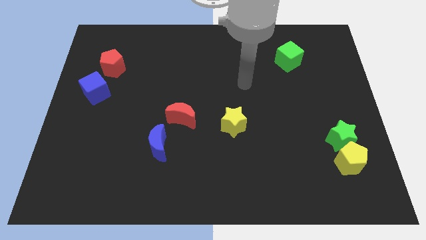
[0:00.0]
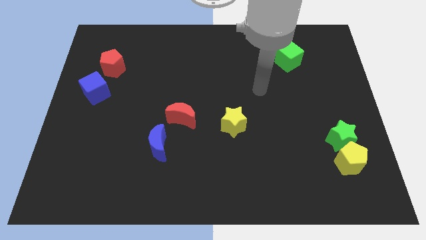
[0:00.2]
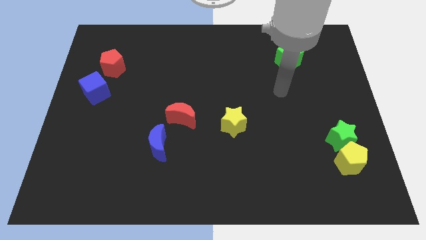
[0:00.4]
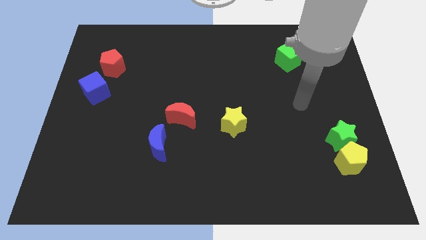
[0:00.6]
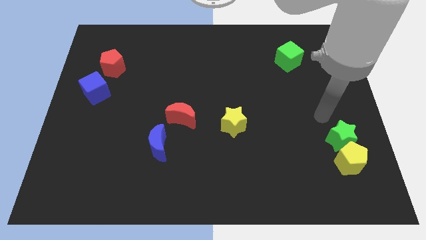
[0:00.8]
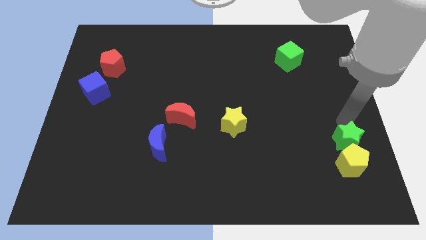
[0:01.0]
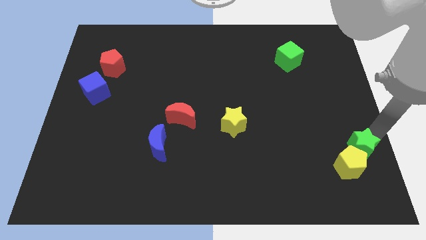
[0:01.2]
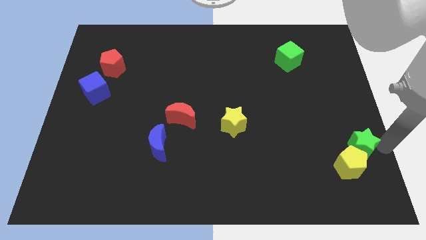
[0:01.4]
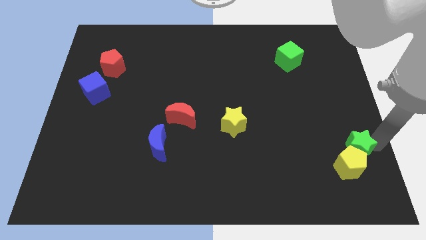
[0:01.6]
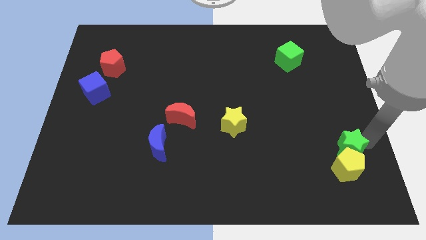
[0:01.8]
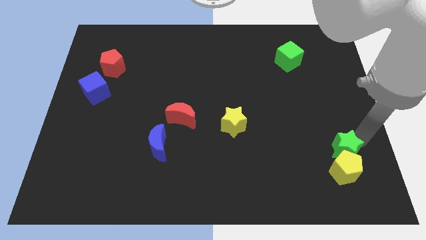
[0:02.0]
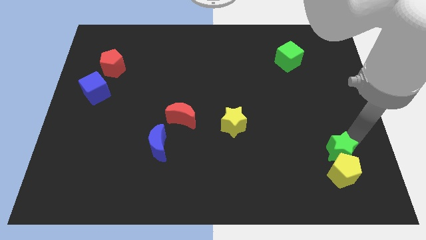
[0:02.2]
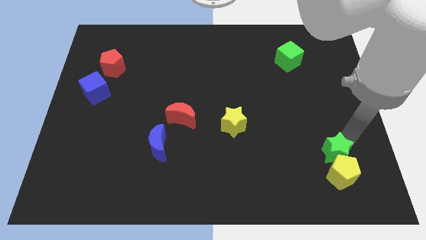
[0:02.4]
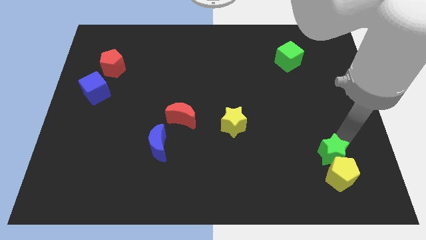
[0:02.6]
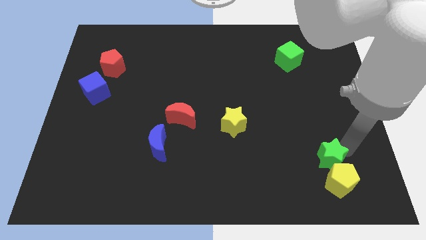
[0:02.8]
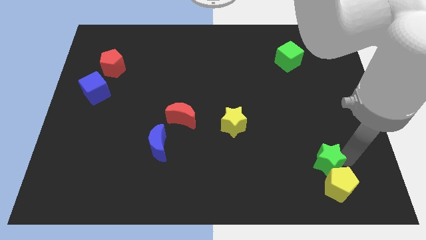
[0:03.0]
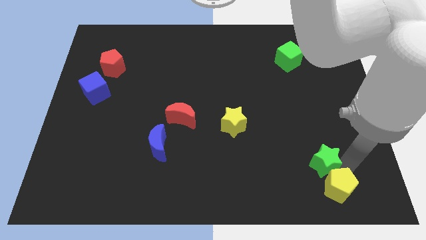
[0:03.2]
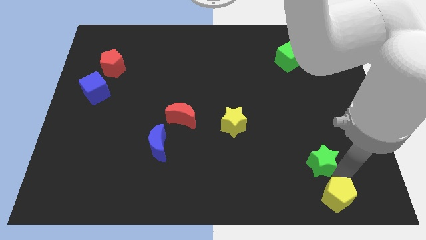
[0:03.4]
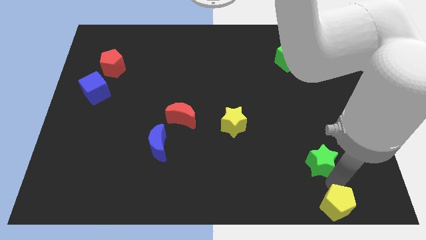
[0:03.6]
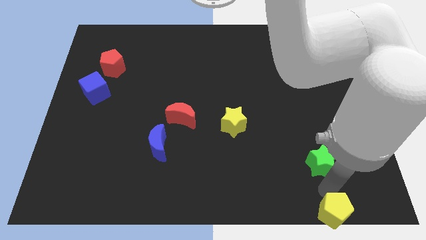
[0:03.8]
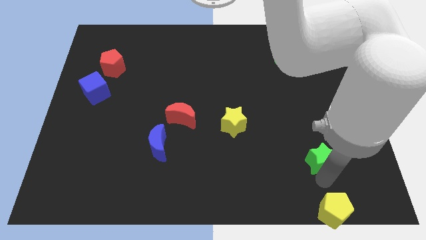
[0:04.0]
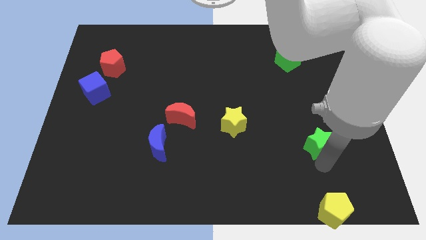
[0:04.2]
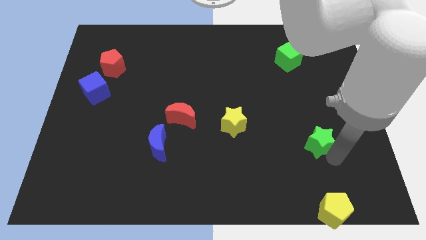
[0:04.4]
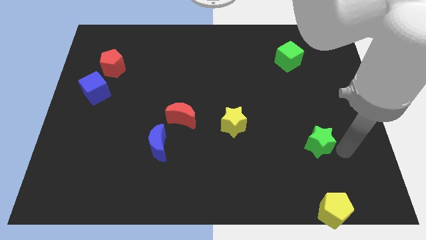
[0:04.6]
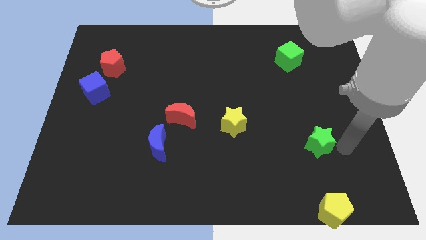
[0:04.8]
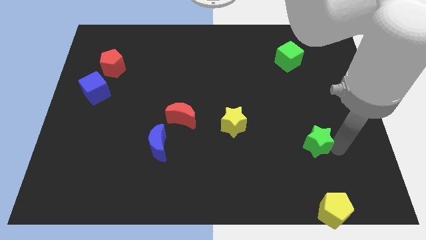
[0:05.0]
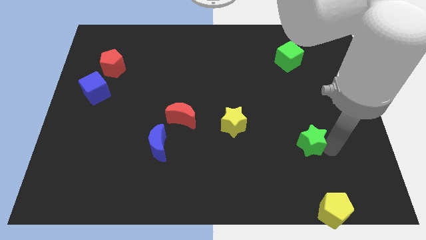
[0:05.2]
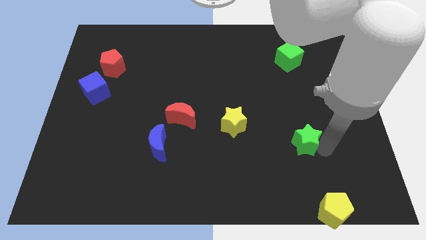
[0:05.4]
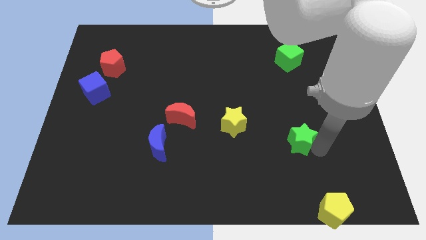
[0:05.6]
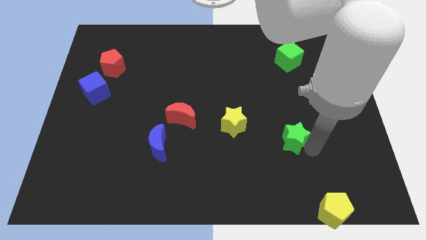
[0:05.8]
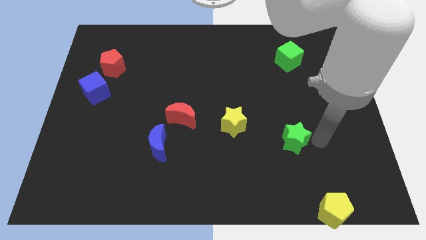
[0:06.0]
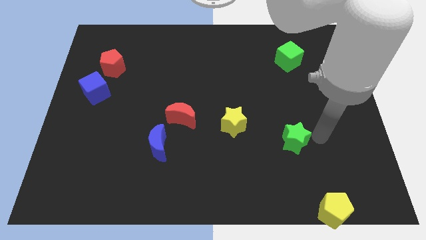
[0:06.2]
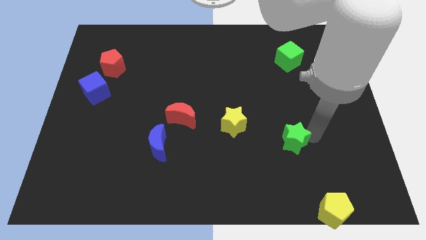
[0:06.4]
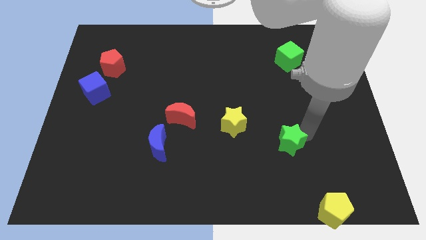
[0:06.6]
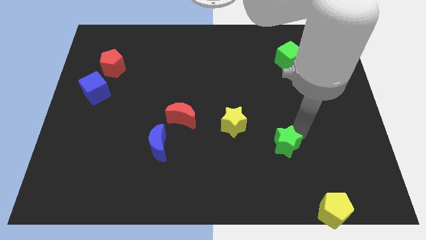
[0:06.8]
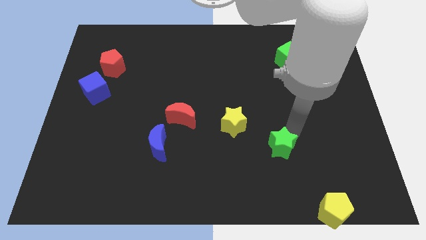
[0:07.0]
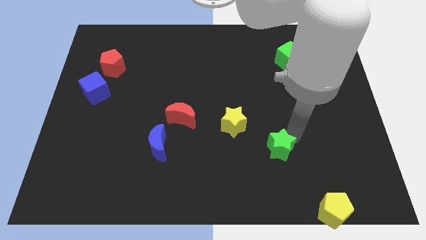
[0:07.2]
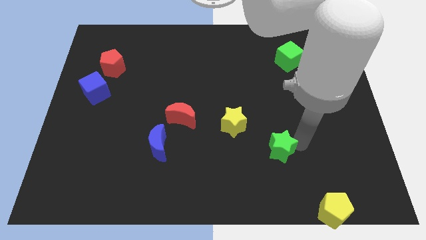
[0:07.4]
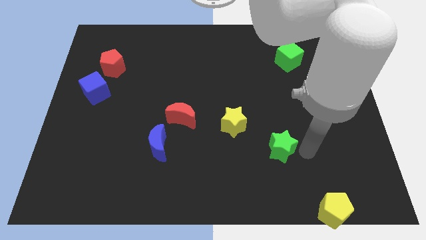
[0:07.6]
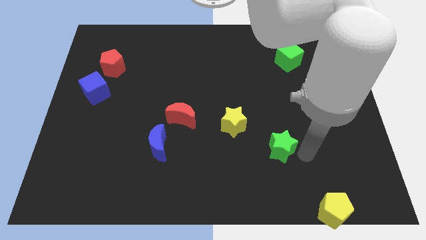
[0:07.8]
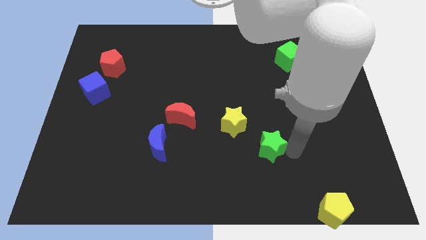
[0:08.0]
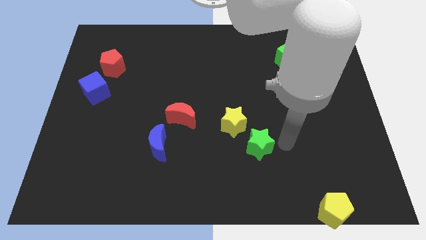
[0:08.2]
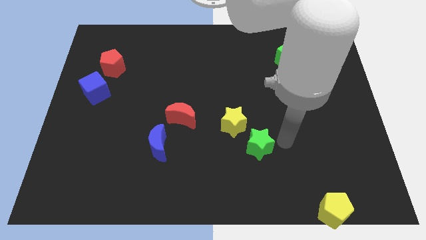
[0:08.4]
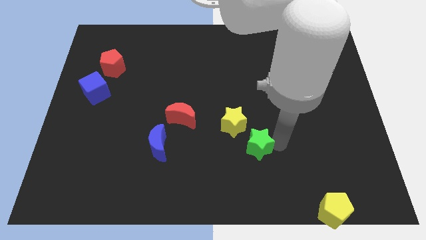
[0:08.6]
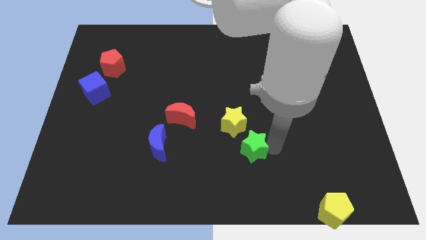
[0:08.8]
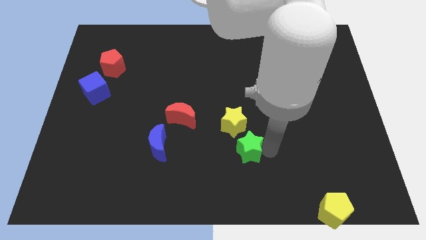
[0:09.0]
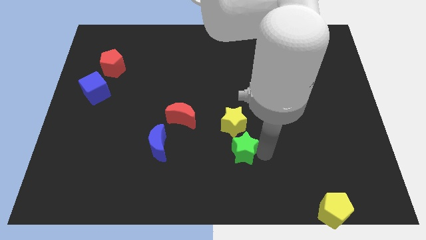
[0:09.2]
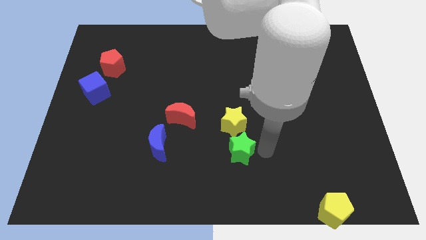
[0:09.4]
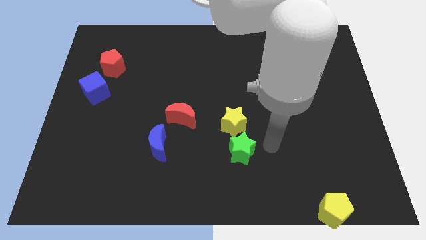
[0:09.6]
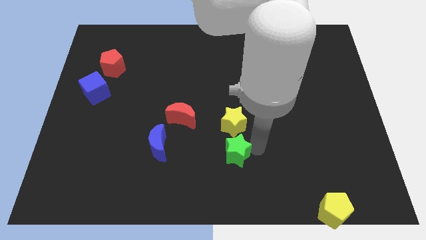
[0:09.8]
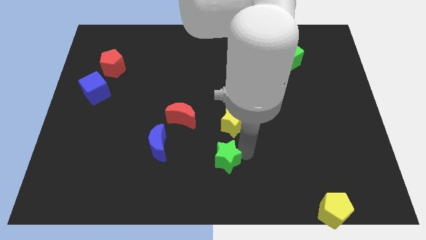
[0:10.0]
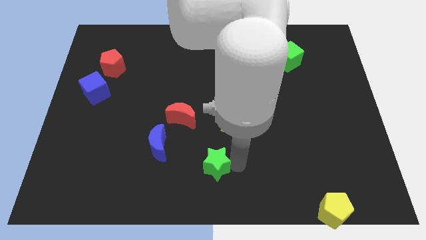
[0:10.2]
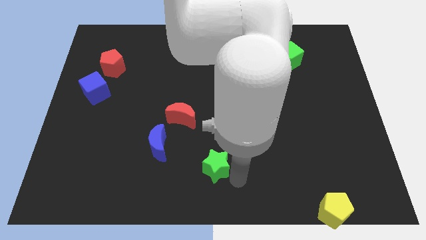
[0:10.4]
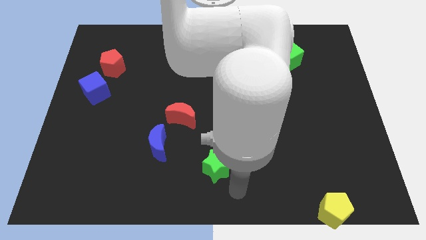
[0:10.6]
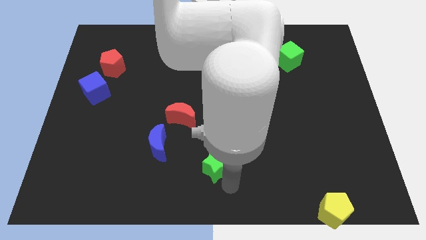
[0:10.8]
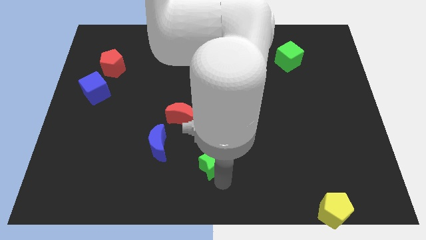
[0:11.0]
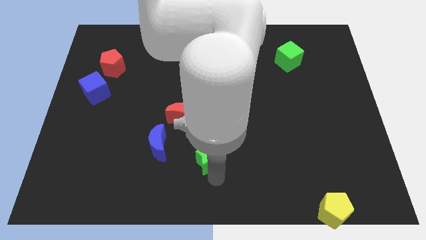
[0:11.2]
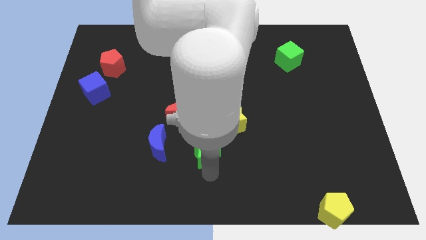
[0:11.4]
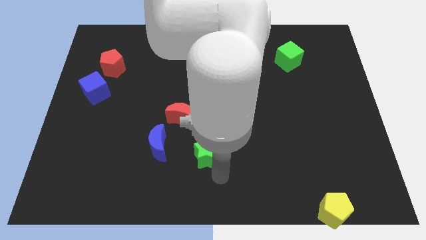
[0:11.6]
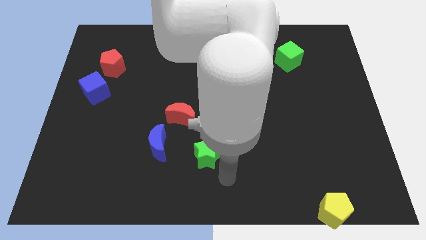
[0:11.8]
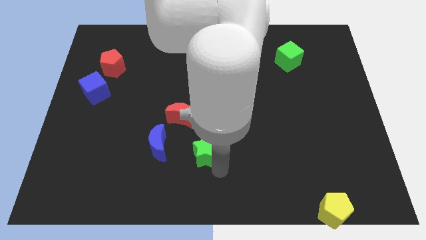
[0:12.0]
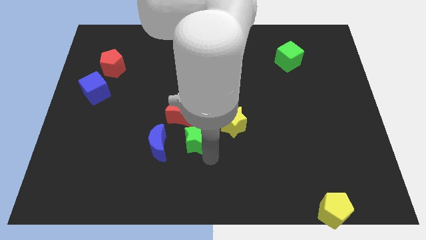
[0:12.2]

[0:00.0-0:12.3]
move the green star just left of the yellow star

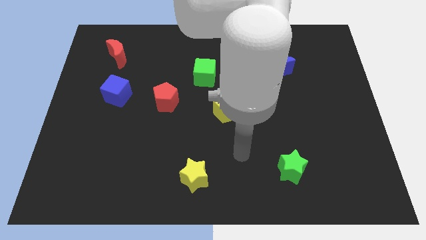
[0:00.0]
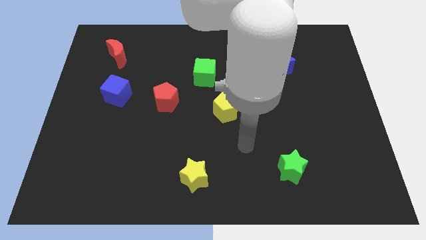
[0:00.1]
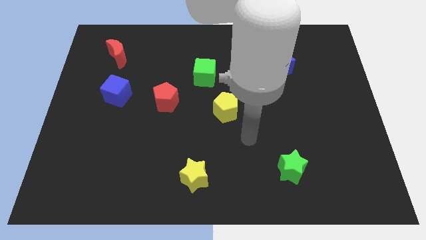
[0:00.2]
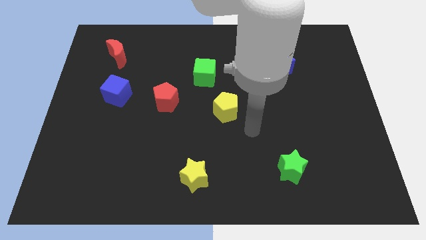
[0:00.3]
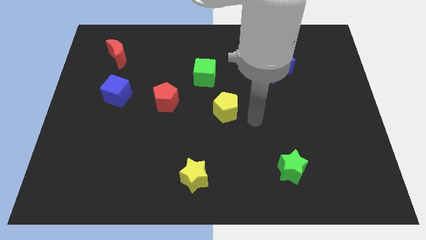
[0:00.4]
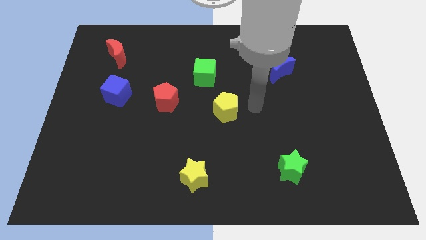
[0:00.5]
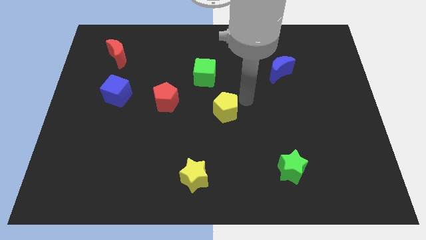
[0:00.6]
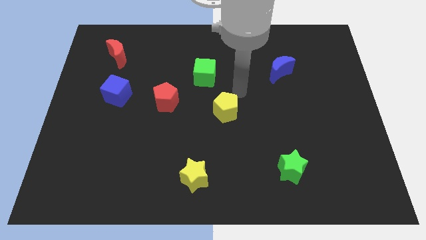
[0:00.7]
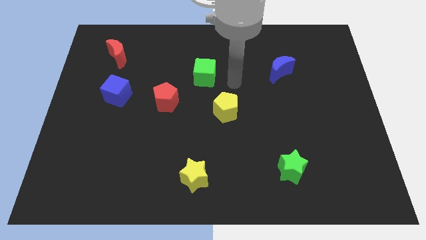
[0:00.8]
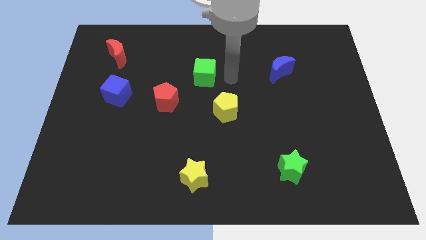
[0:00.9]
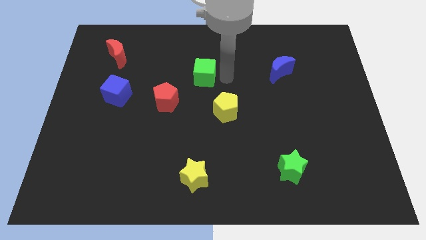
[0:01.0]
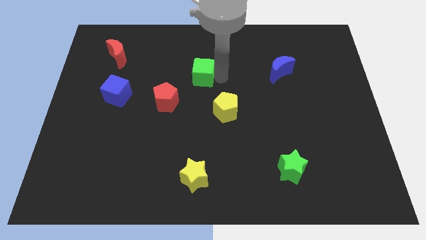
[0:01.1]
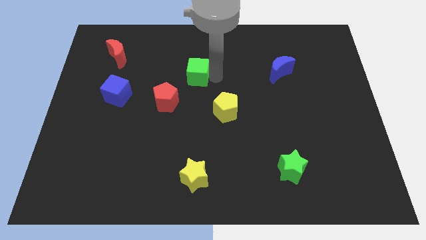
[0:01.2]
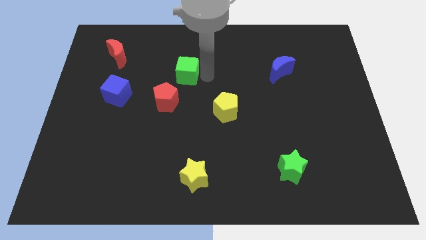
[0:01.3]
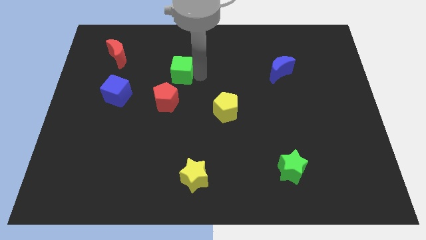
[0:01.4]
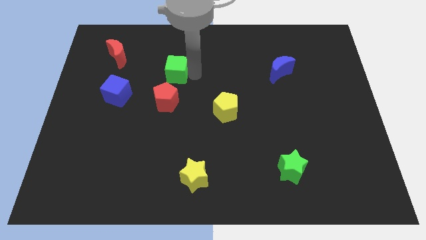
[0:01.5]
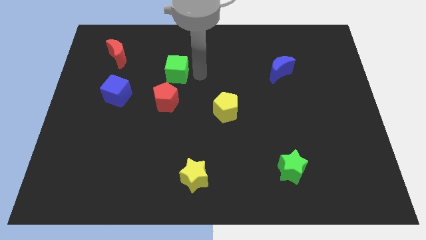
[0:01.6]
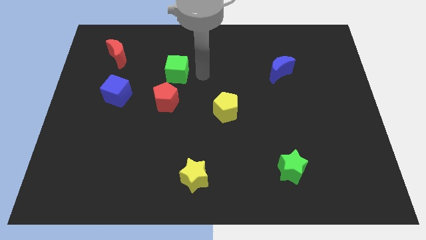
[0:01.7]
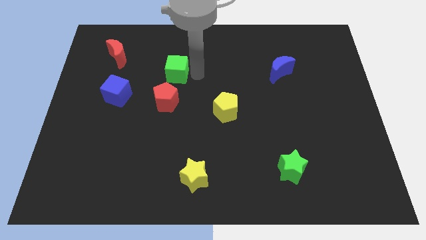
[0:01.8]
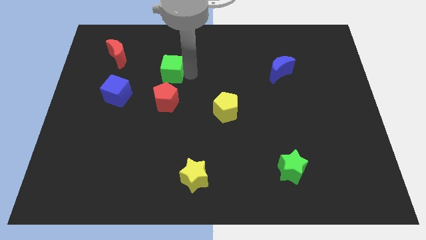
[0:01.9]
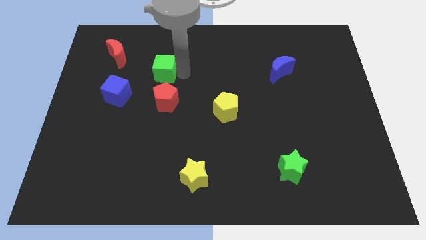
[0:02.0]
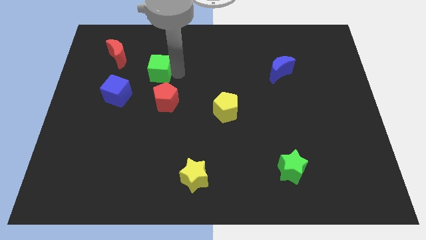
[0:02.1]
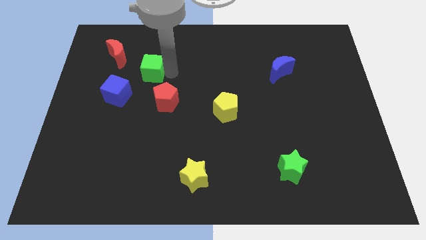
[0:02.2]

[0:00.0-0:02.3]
slide the green cube diagonally down and to the right of the red moon
